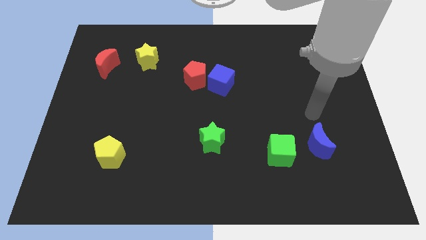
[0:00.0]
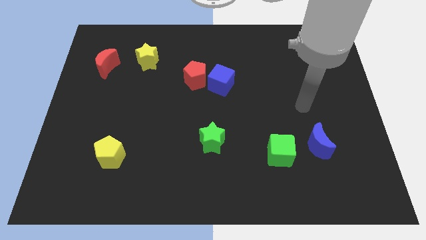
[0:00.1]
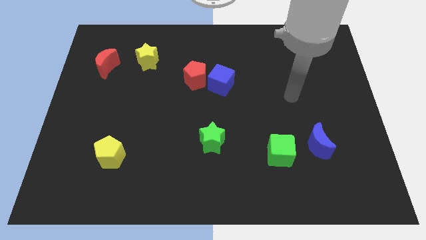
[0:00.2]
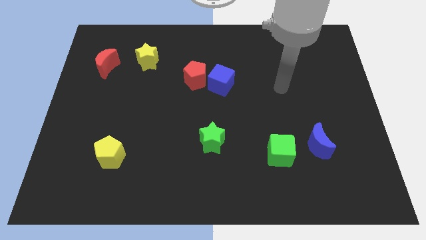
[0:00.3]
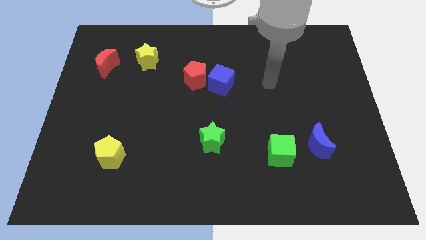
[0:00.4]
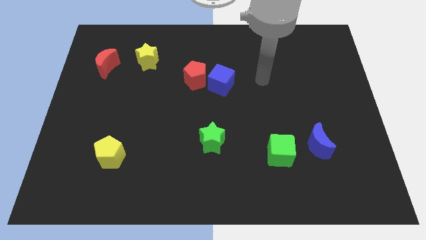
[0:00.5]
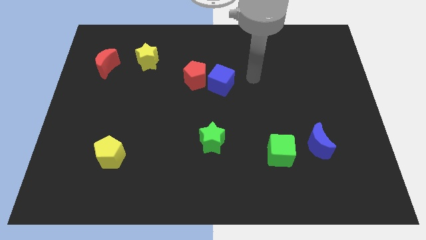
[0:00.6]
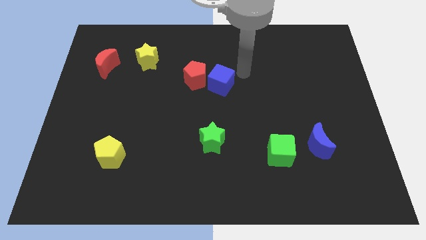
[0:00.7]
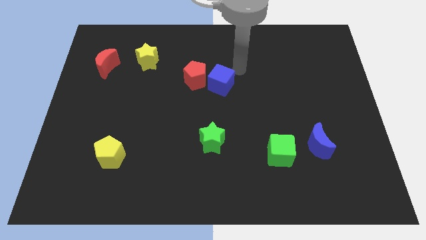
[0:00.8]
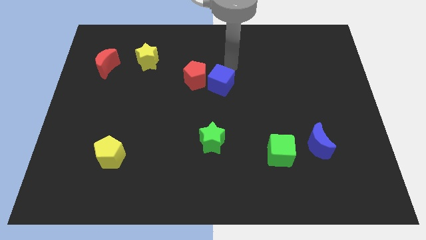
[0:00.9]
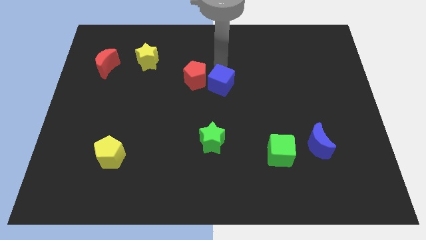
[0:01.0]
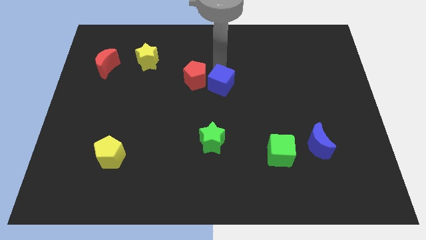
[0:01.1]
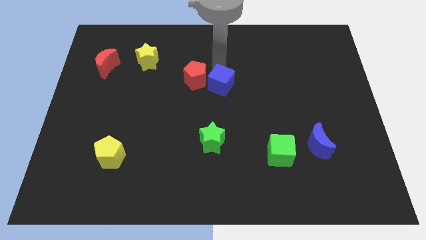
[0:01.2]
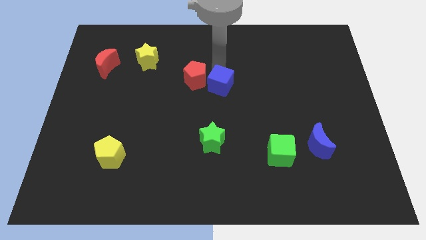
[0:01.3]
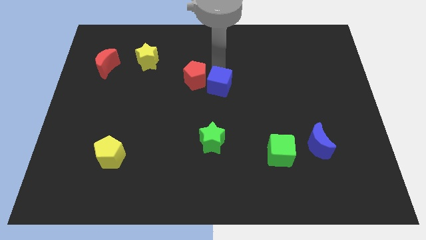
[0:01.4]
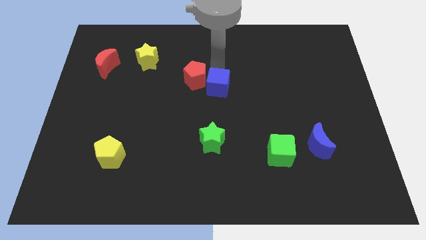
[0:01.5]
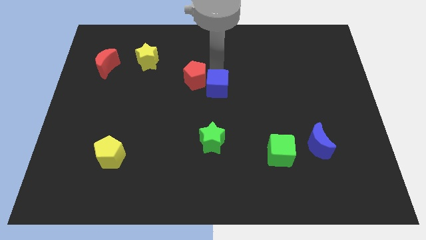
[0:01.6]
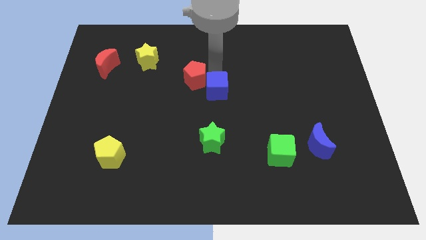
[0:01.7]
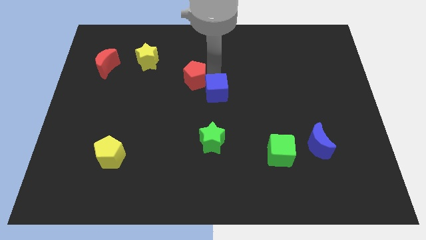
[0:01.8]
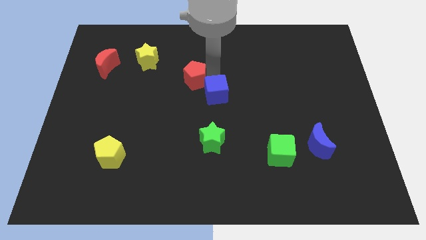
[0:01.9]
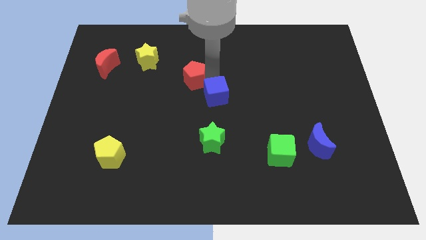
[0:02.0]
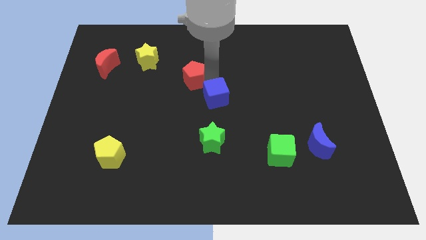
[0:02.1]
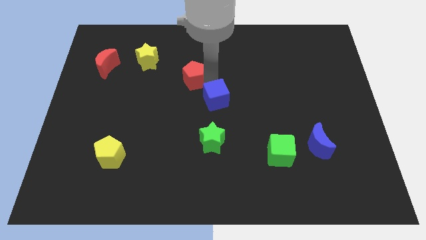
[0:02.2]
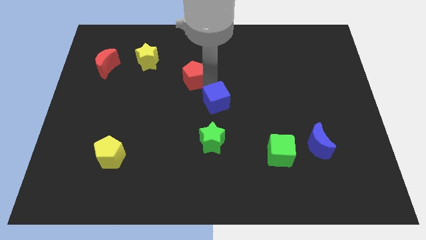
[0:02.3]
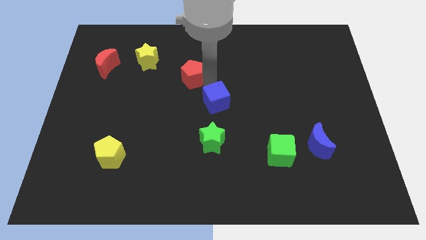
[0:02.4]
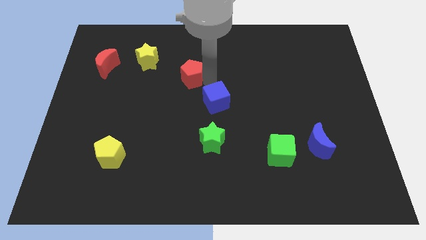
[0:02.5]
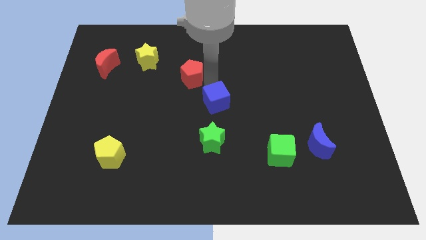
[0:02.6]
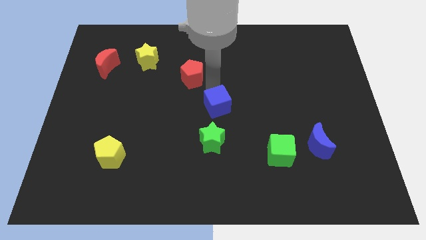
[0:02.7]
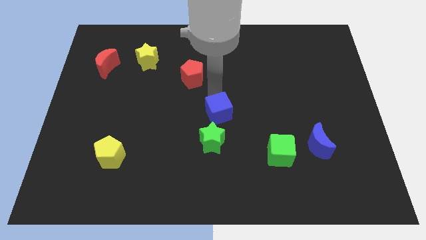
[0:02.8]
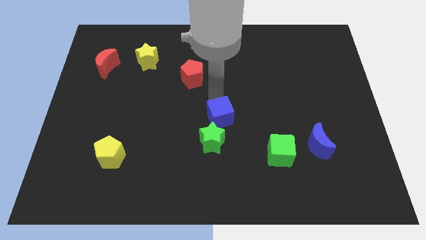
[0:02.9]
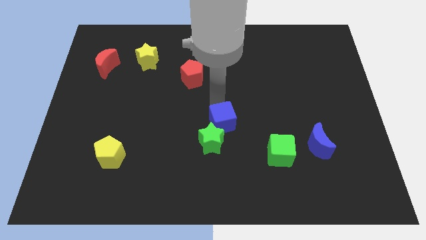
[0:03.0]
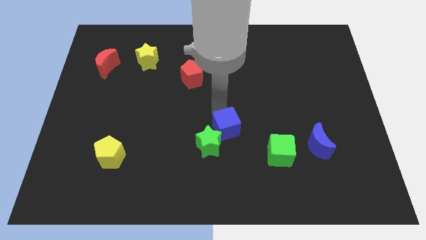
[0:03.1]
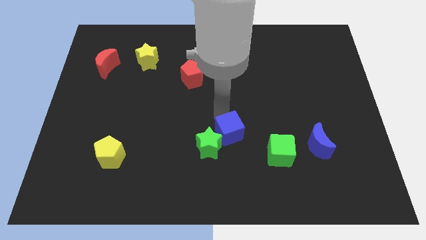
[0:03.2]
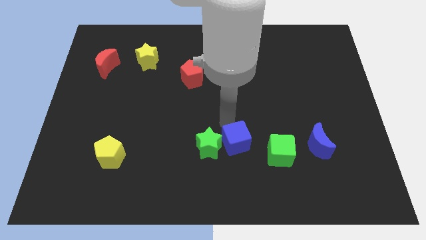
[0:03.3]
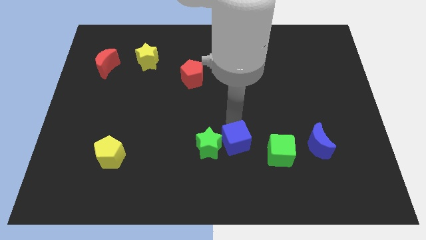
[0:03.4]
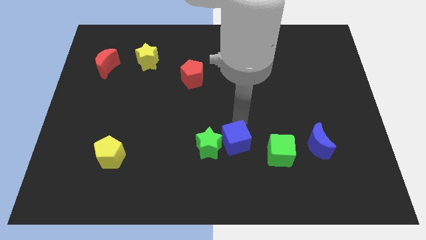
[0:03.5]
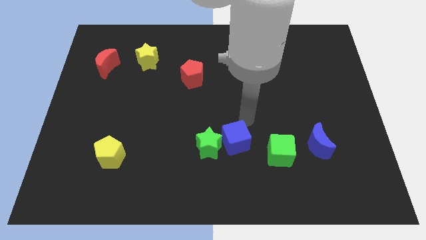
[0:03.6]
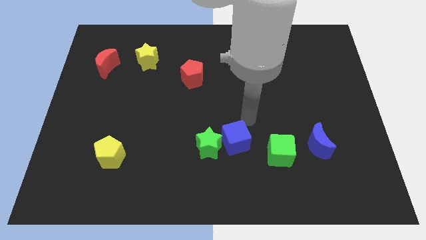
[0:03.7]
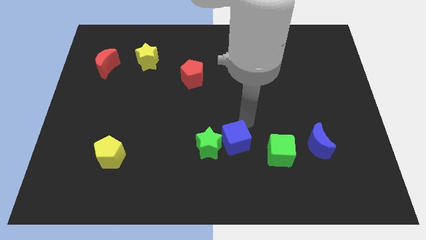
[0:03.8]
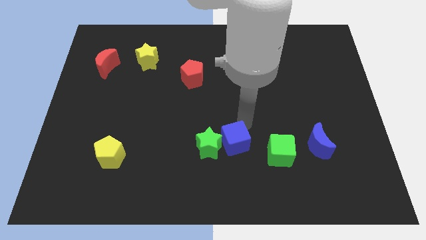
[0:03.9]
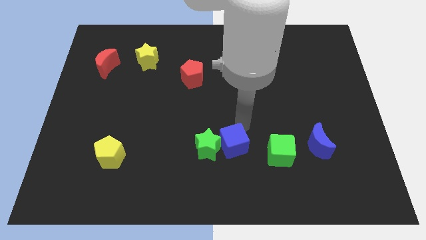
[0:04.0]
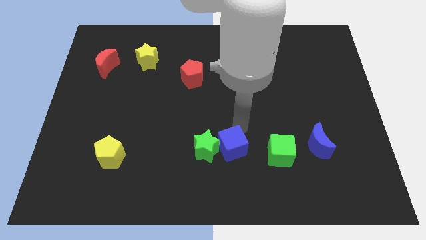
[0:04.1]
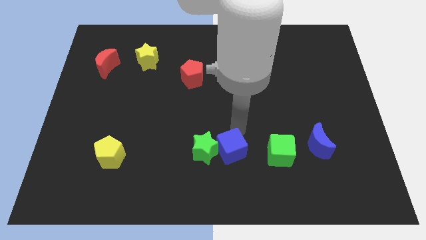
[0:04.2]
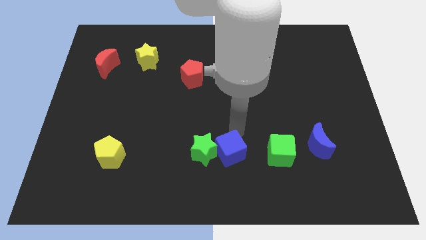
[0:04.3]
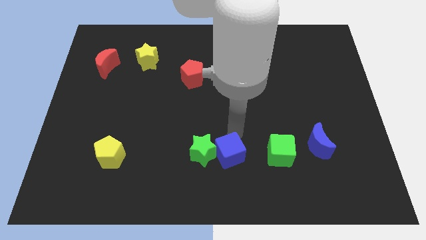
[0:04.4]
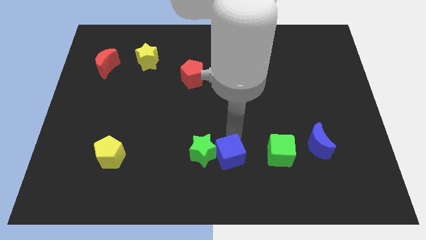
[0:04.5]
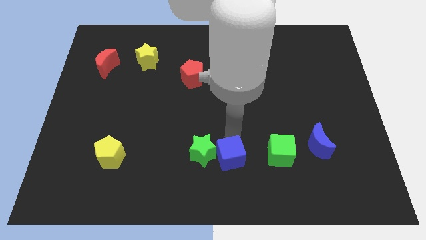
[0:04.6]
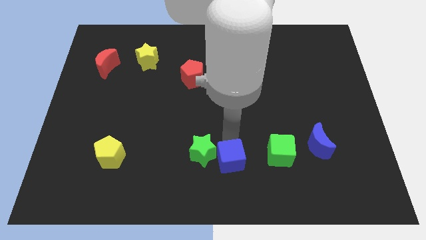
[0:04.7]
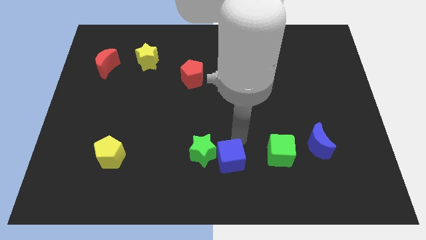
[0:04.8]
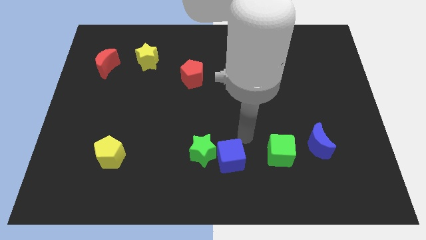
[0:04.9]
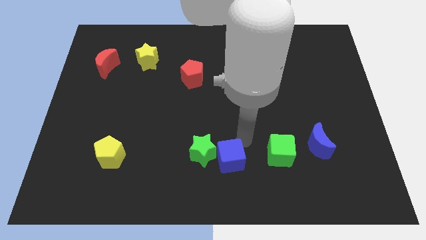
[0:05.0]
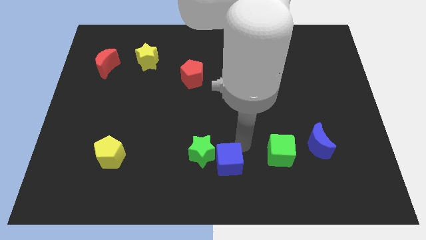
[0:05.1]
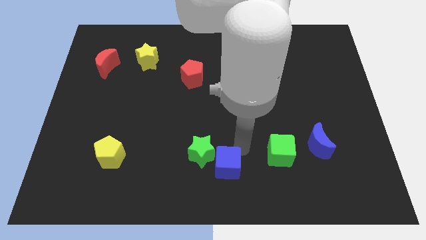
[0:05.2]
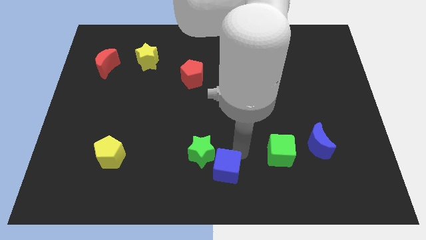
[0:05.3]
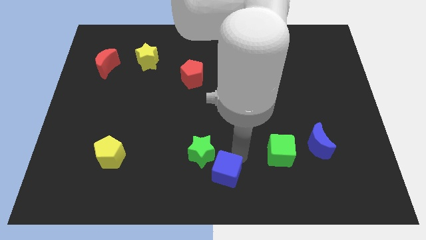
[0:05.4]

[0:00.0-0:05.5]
push the blue cube to the bottom side of the green star

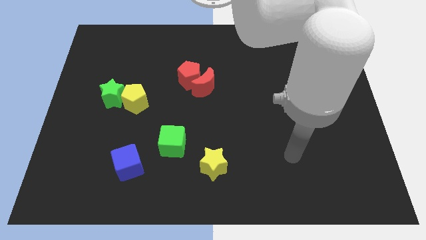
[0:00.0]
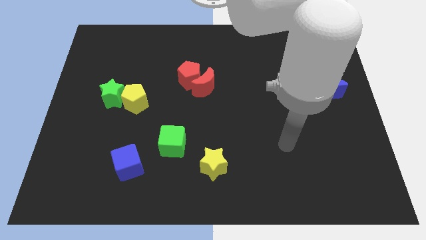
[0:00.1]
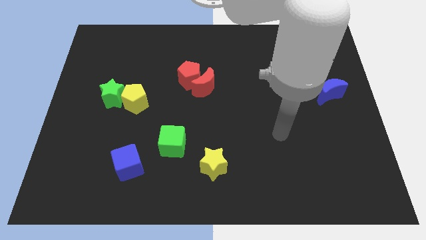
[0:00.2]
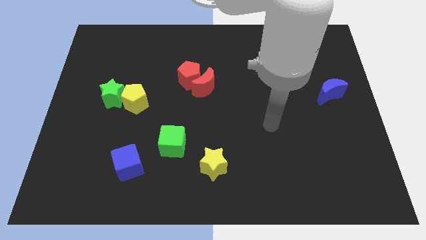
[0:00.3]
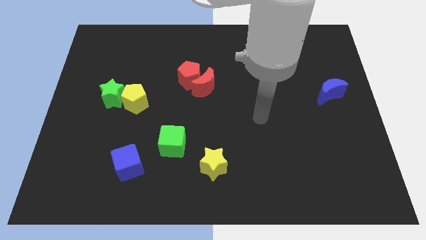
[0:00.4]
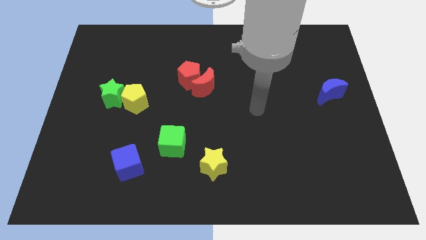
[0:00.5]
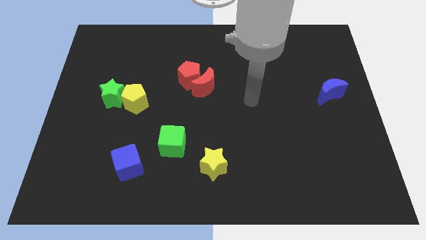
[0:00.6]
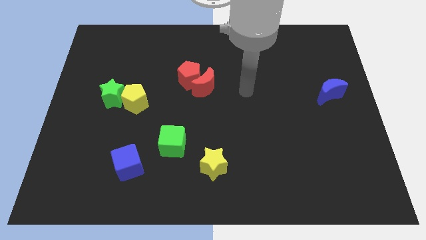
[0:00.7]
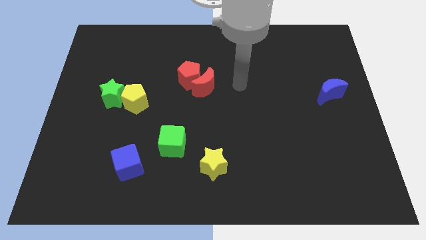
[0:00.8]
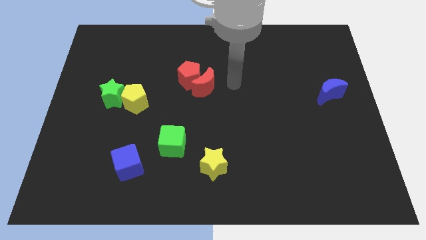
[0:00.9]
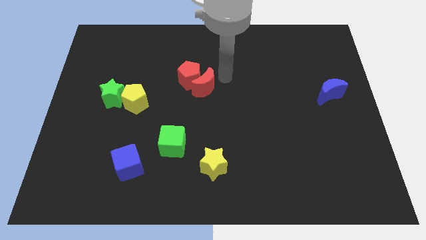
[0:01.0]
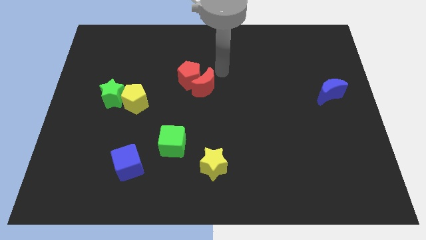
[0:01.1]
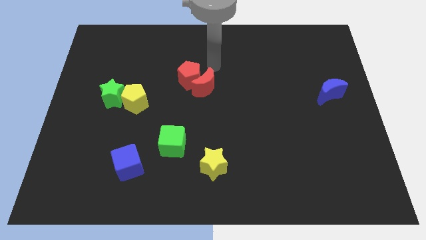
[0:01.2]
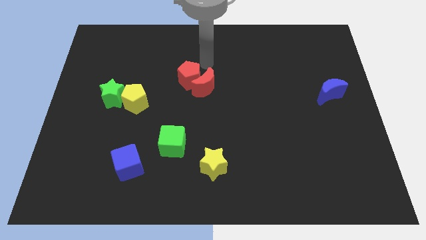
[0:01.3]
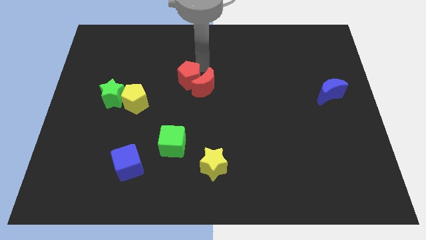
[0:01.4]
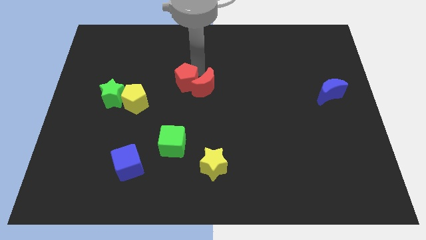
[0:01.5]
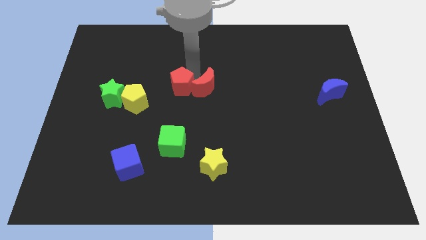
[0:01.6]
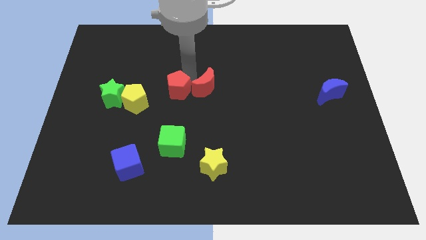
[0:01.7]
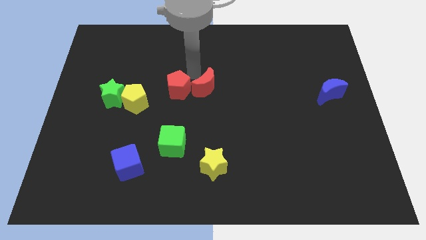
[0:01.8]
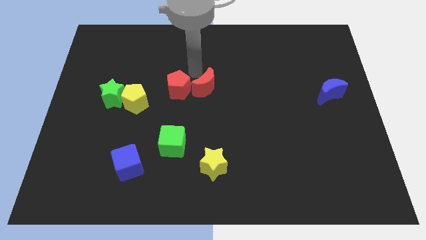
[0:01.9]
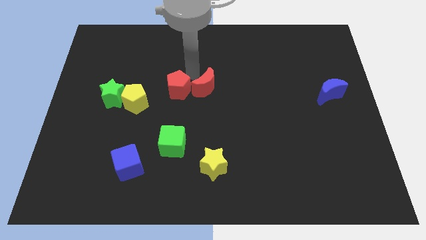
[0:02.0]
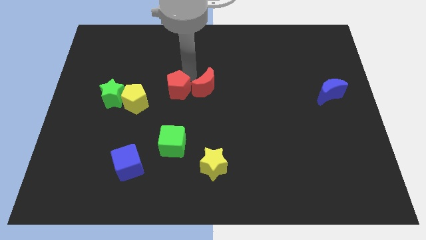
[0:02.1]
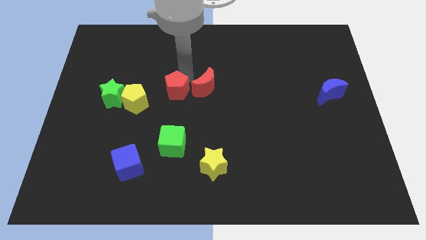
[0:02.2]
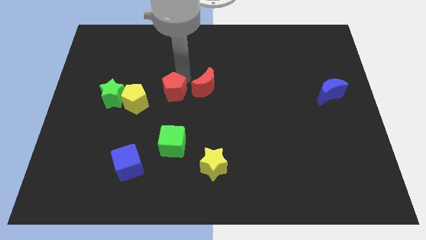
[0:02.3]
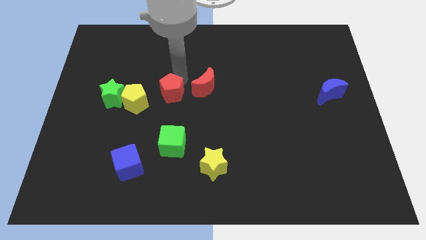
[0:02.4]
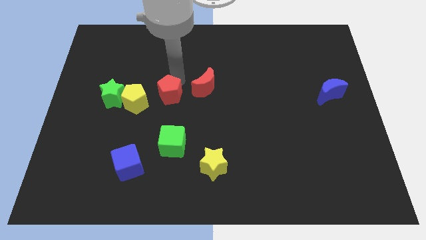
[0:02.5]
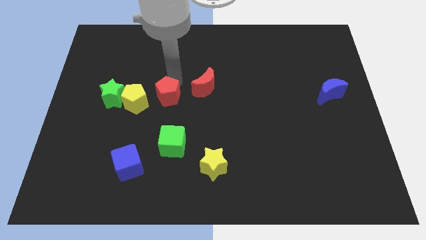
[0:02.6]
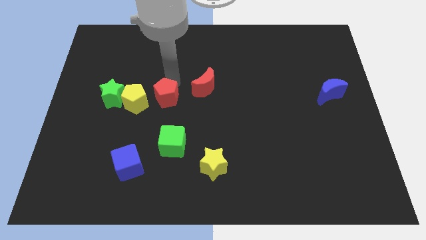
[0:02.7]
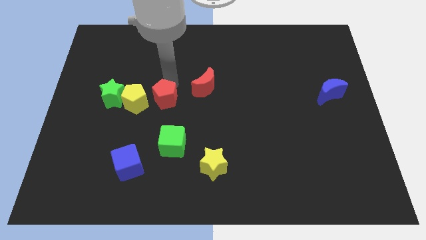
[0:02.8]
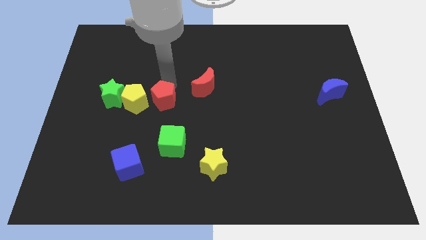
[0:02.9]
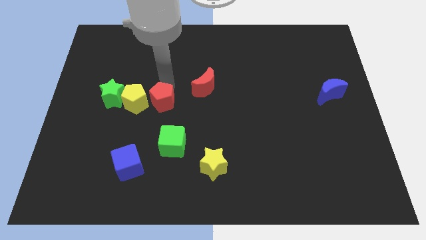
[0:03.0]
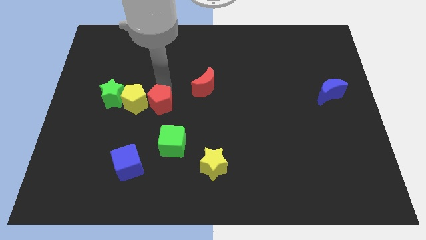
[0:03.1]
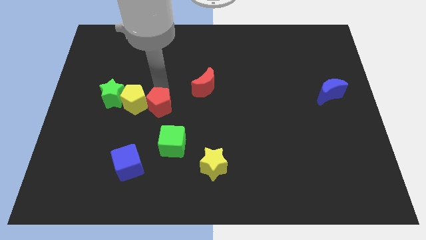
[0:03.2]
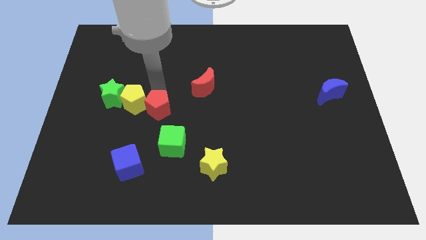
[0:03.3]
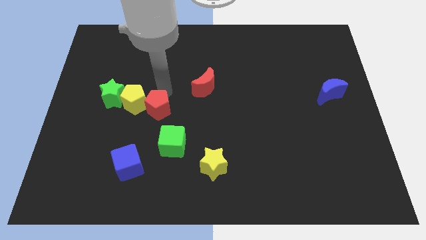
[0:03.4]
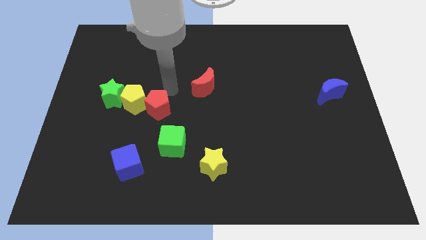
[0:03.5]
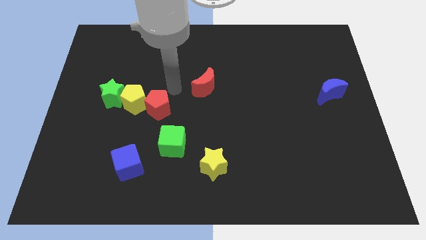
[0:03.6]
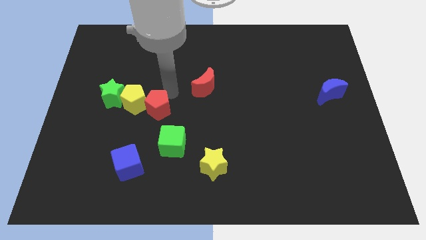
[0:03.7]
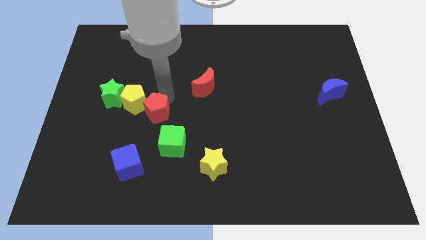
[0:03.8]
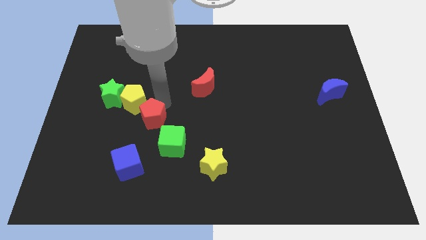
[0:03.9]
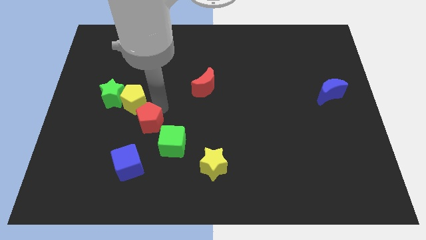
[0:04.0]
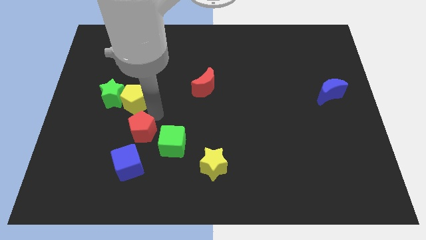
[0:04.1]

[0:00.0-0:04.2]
slide the red pentagon to the left side of the green cube
